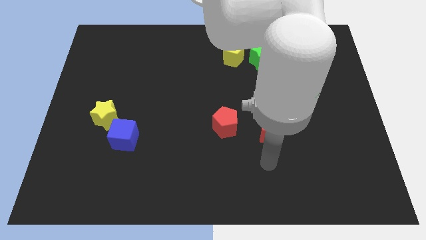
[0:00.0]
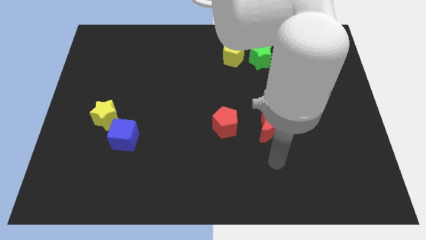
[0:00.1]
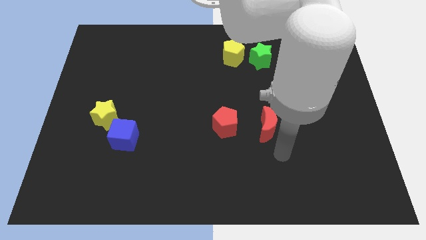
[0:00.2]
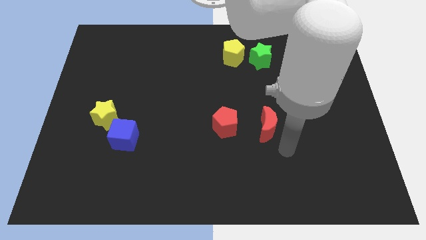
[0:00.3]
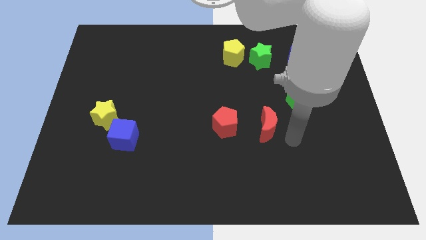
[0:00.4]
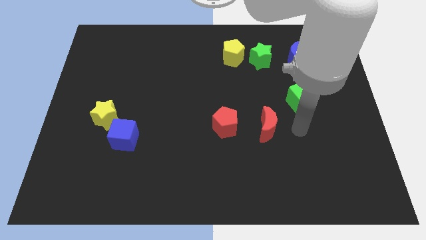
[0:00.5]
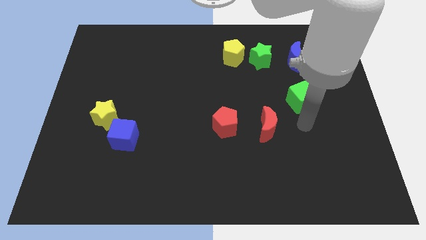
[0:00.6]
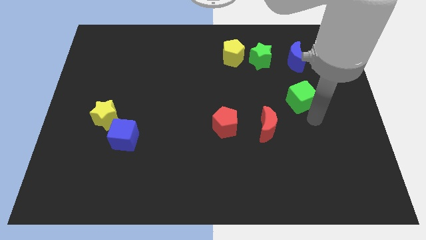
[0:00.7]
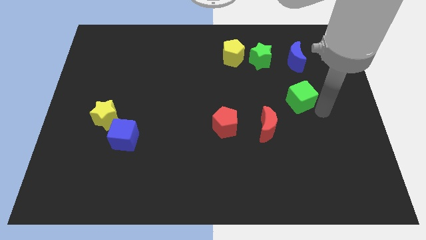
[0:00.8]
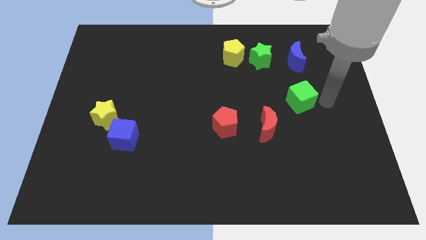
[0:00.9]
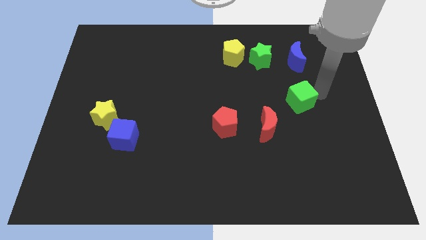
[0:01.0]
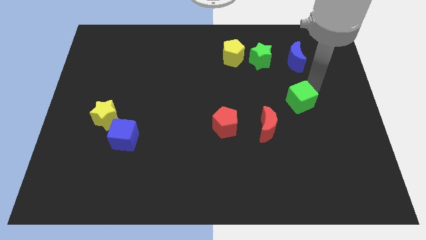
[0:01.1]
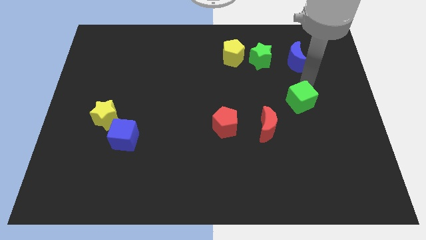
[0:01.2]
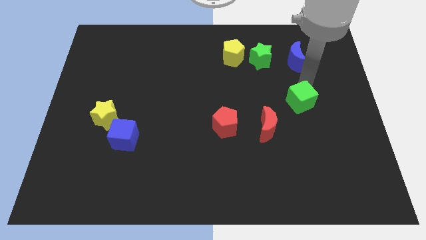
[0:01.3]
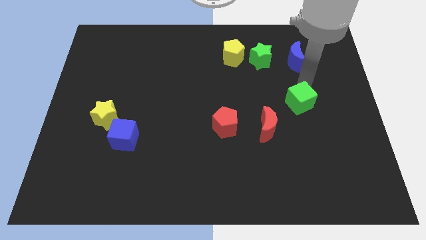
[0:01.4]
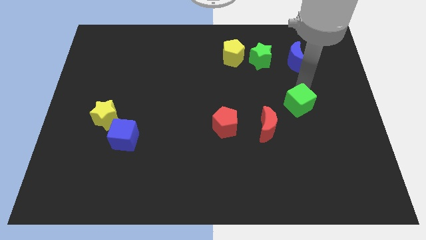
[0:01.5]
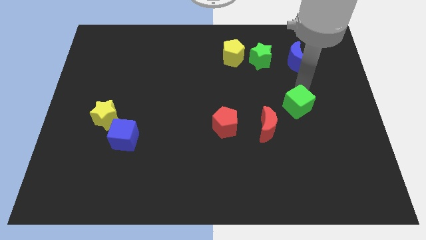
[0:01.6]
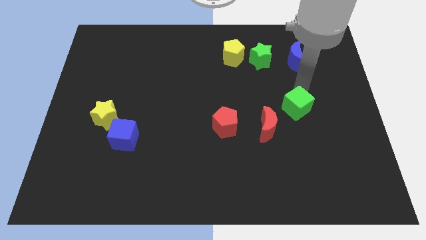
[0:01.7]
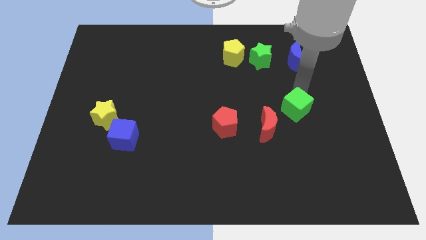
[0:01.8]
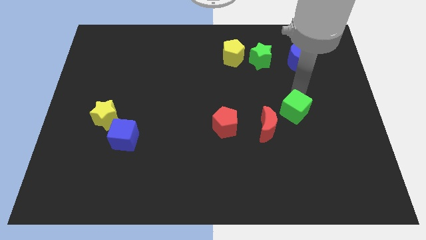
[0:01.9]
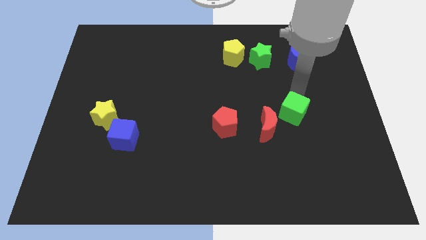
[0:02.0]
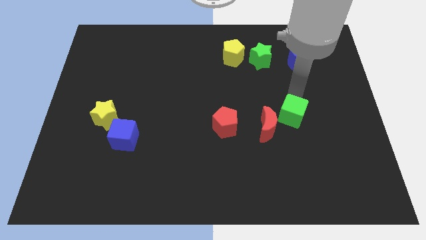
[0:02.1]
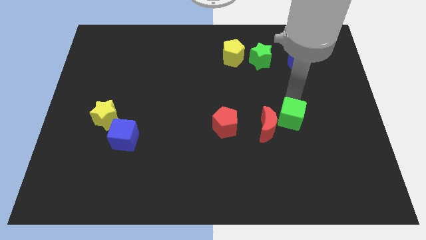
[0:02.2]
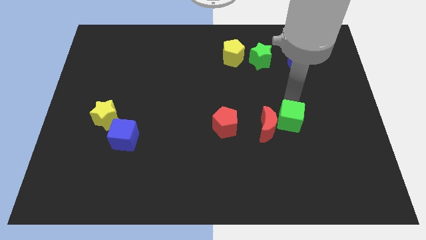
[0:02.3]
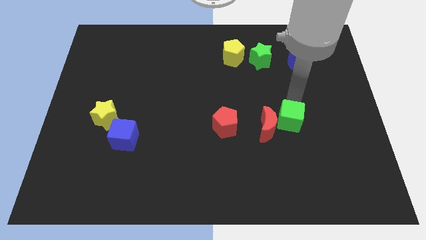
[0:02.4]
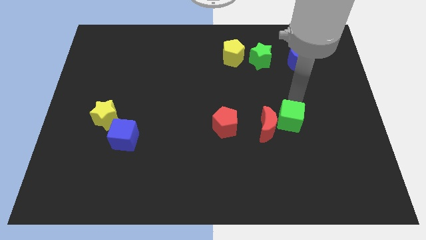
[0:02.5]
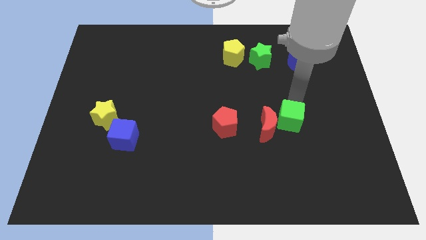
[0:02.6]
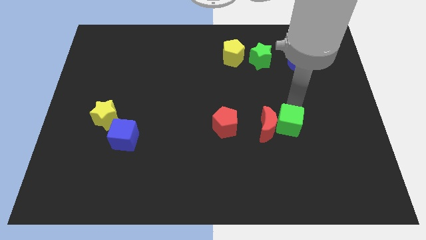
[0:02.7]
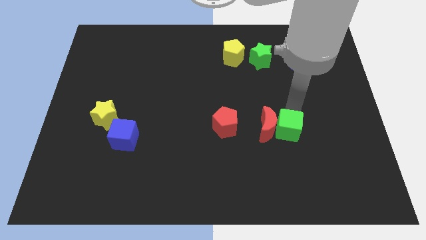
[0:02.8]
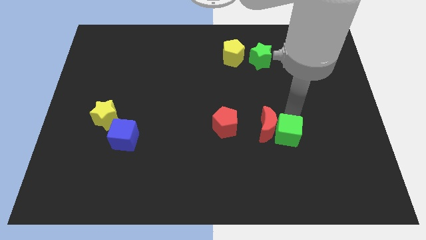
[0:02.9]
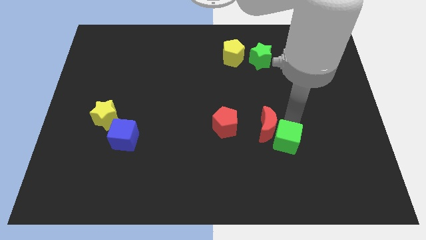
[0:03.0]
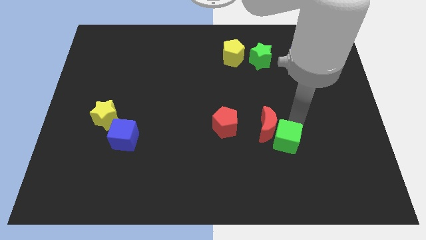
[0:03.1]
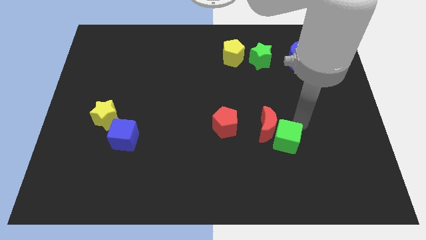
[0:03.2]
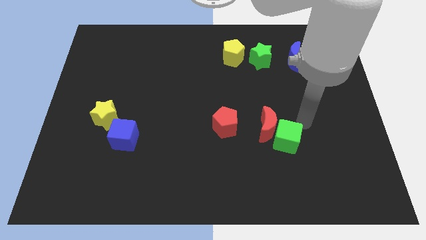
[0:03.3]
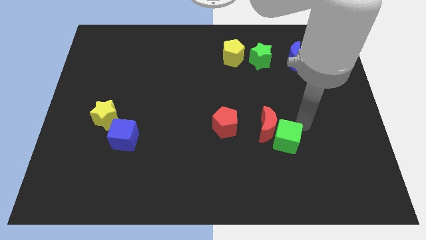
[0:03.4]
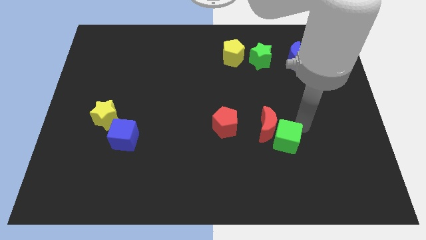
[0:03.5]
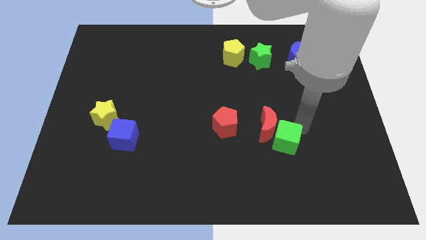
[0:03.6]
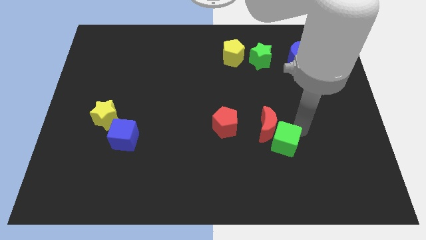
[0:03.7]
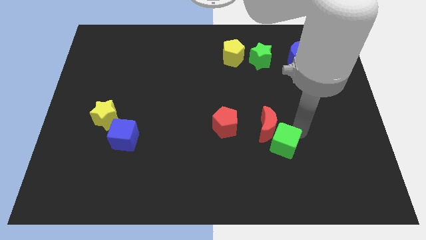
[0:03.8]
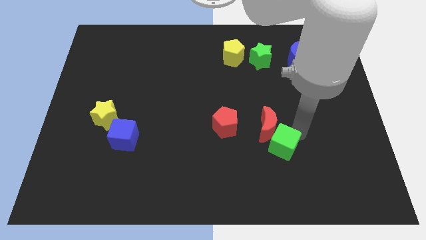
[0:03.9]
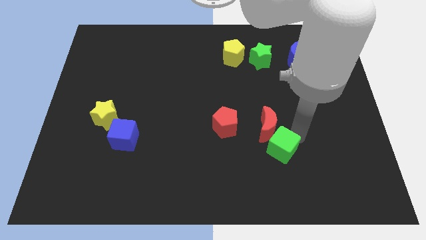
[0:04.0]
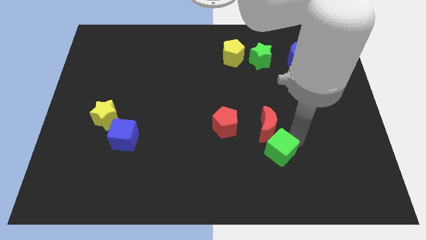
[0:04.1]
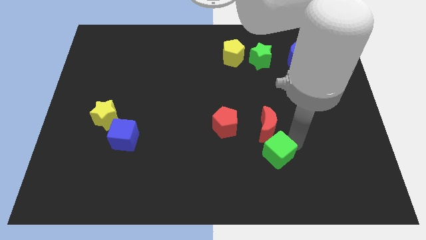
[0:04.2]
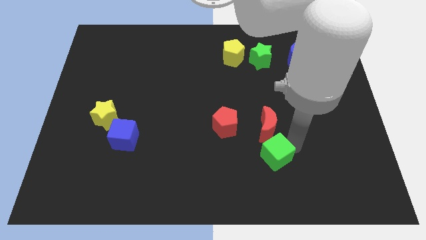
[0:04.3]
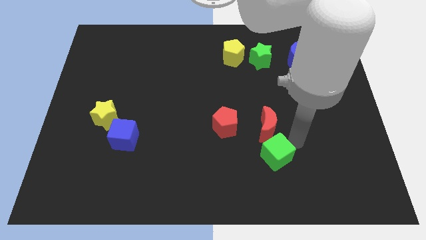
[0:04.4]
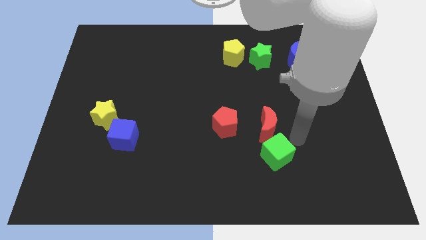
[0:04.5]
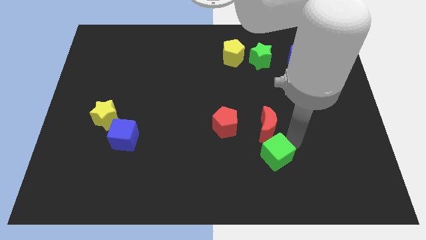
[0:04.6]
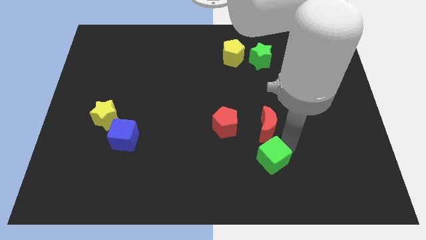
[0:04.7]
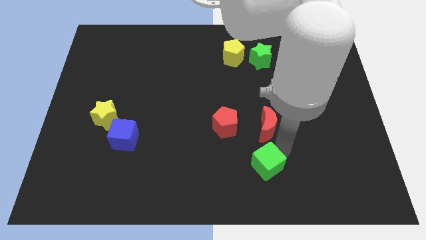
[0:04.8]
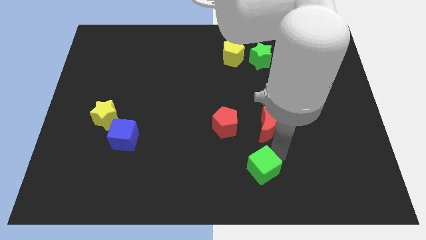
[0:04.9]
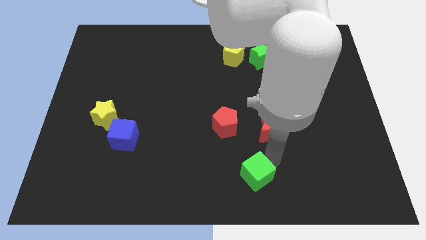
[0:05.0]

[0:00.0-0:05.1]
slide the green cube to the bottom side

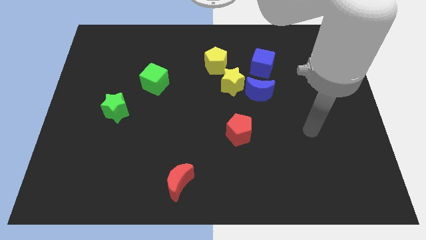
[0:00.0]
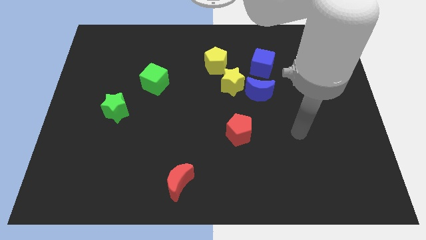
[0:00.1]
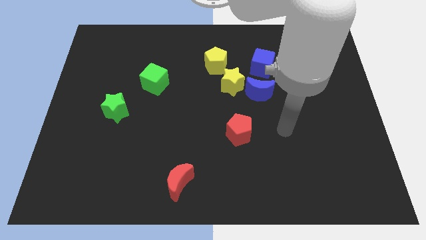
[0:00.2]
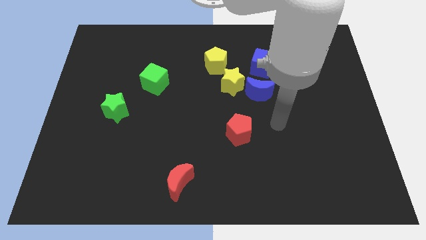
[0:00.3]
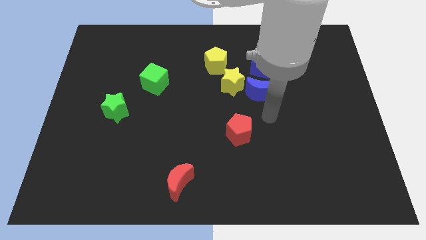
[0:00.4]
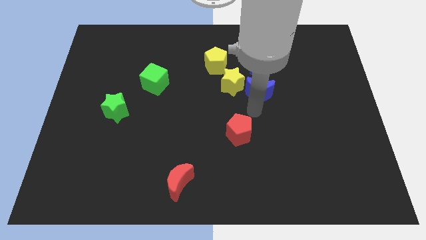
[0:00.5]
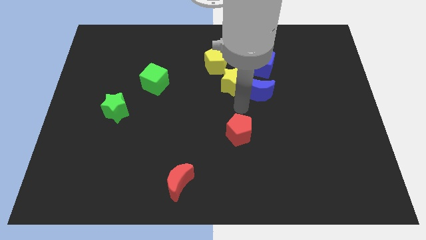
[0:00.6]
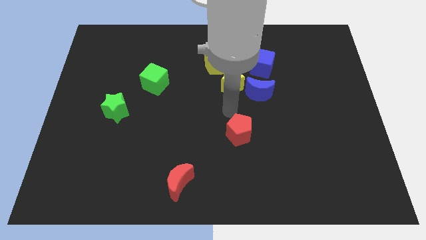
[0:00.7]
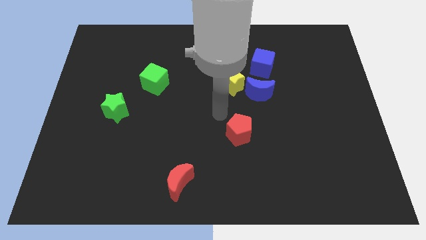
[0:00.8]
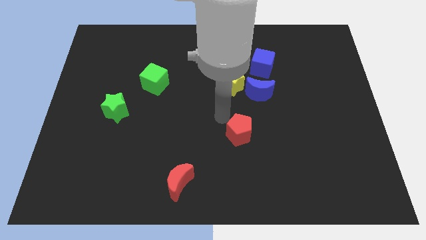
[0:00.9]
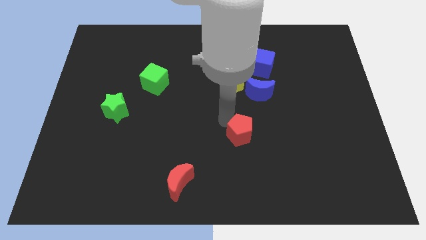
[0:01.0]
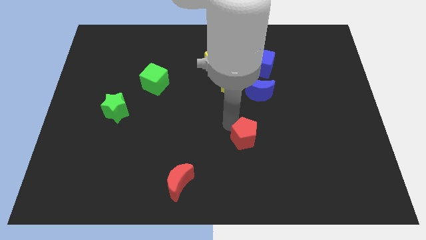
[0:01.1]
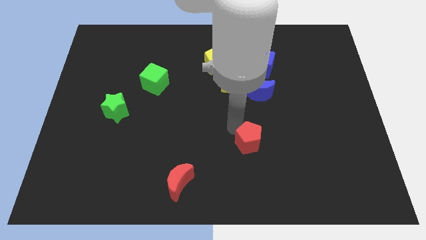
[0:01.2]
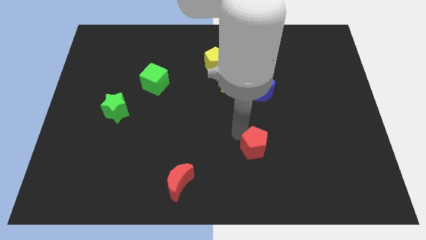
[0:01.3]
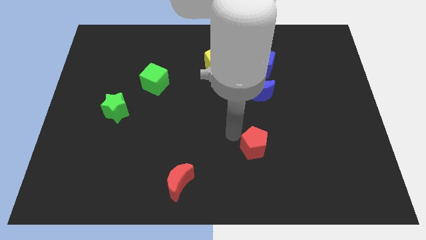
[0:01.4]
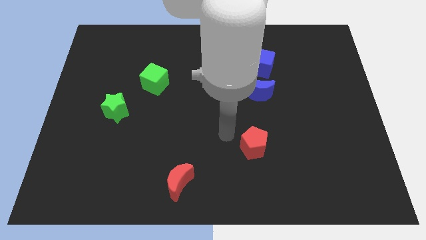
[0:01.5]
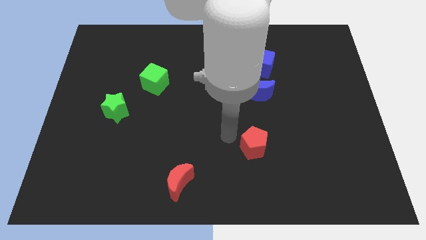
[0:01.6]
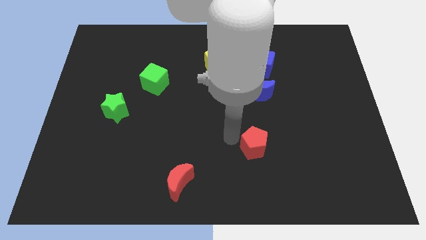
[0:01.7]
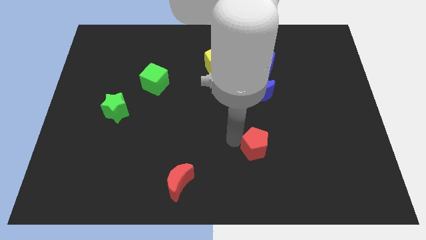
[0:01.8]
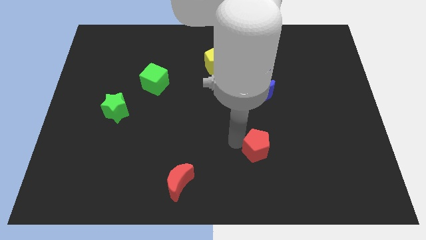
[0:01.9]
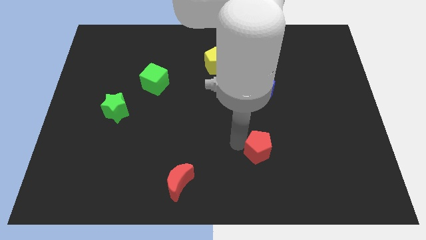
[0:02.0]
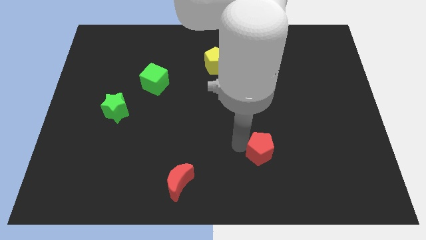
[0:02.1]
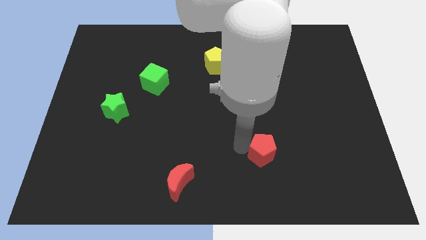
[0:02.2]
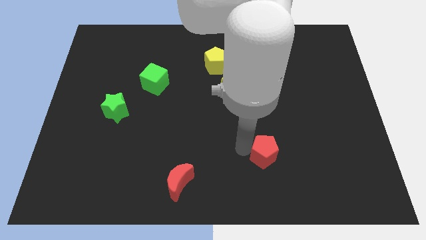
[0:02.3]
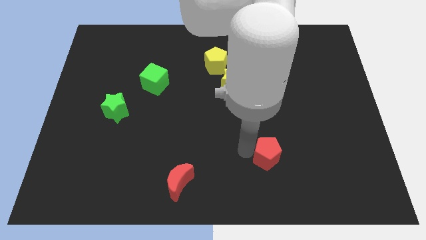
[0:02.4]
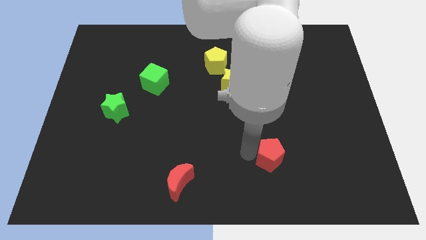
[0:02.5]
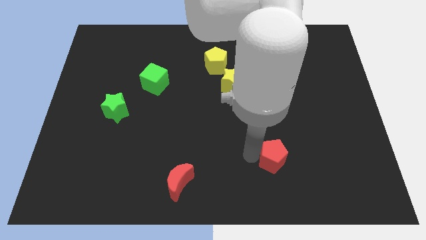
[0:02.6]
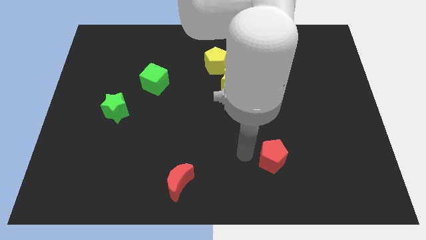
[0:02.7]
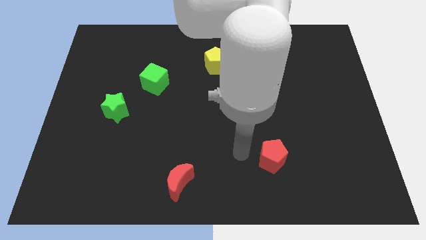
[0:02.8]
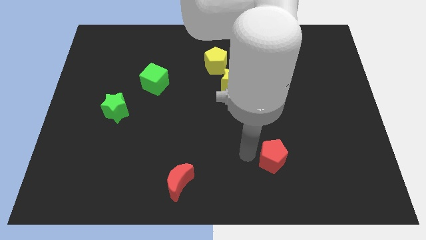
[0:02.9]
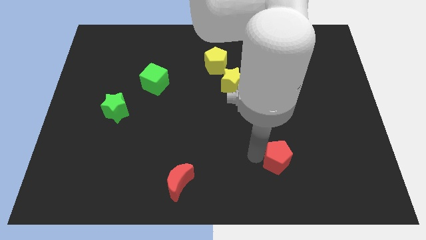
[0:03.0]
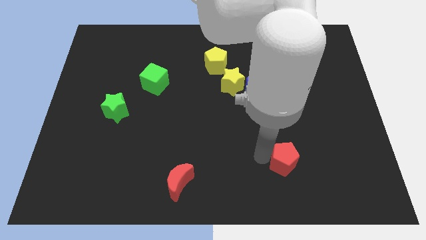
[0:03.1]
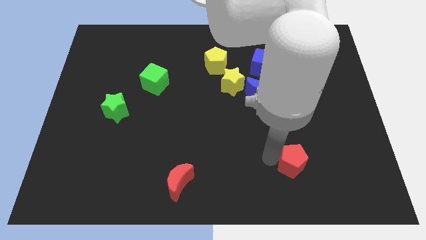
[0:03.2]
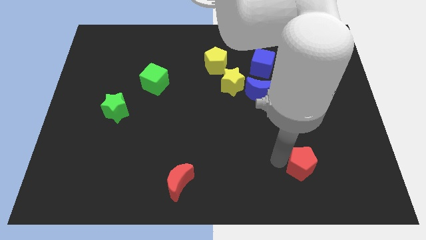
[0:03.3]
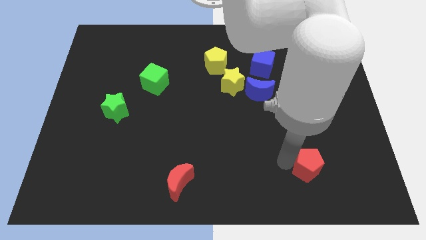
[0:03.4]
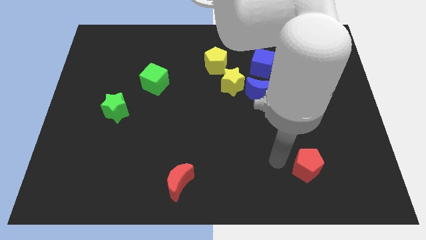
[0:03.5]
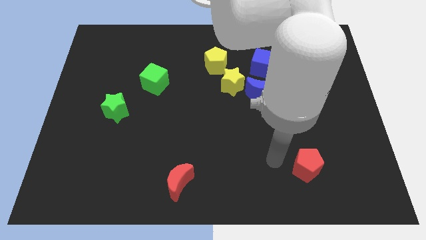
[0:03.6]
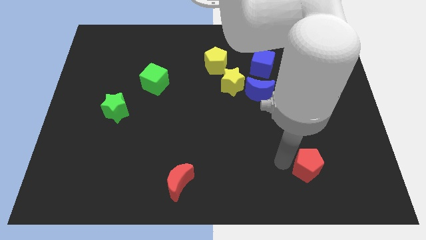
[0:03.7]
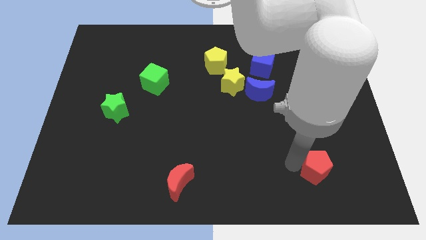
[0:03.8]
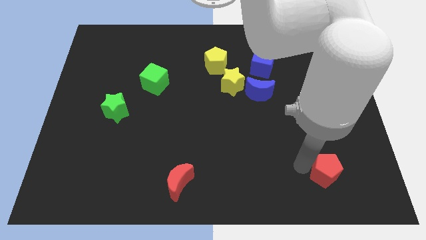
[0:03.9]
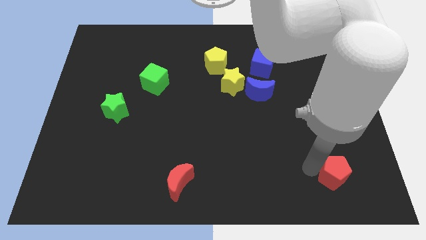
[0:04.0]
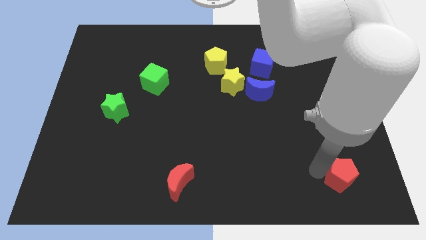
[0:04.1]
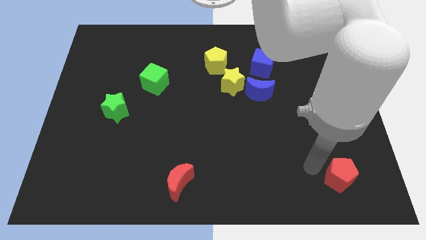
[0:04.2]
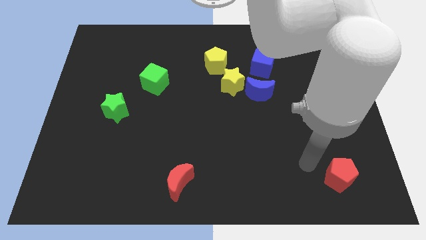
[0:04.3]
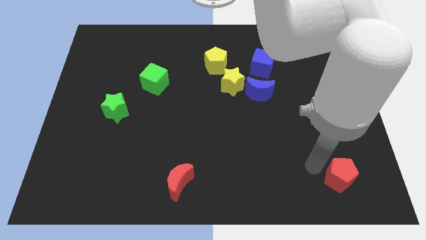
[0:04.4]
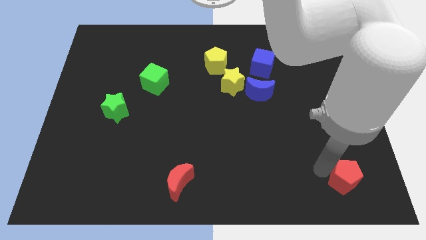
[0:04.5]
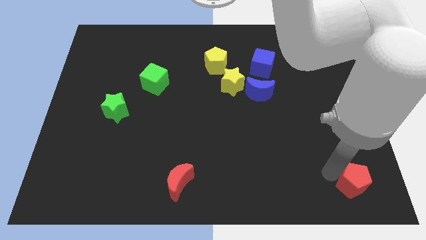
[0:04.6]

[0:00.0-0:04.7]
push the red pentagon to the lower right corner
